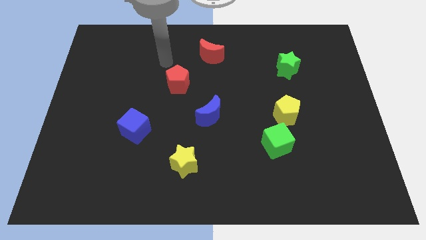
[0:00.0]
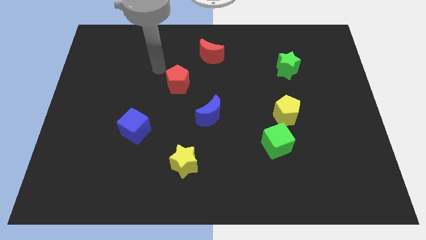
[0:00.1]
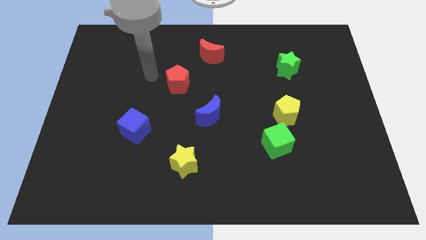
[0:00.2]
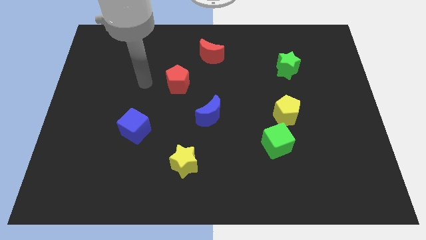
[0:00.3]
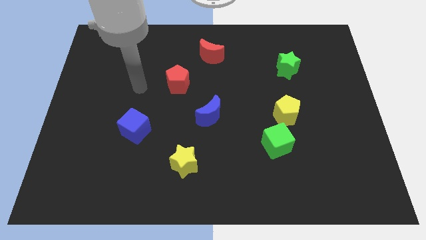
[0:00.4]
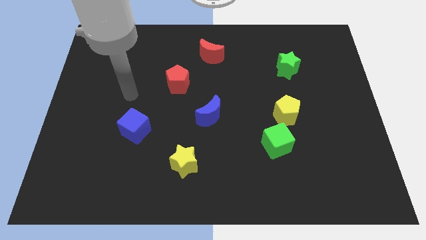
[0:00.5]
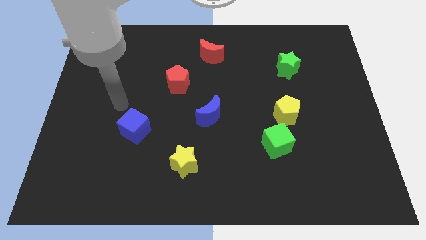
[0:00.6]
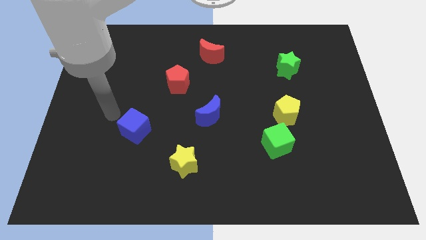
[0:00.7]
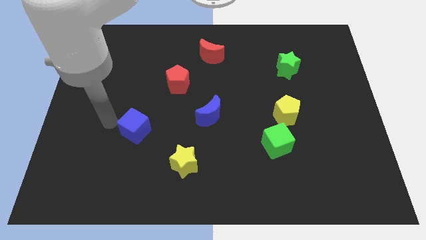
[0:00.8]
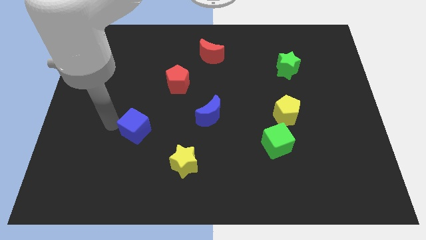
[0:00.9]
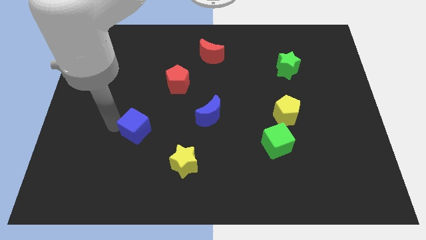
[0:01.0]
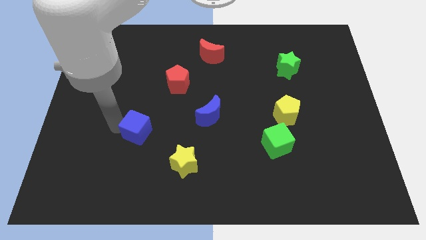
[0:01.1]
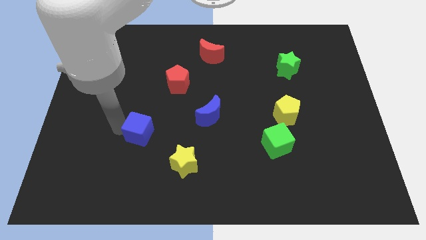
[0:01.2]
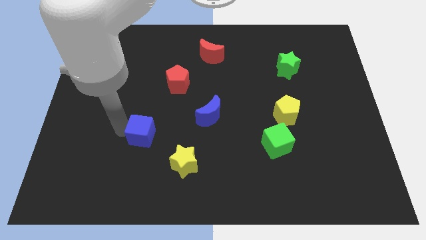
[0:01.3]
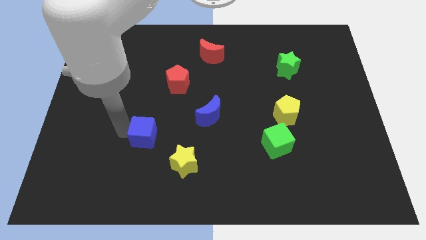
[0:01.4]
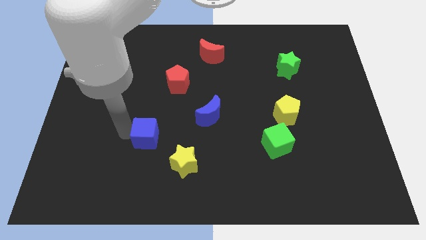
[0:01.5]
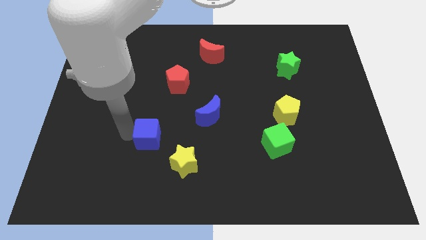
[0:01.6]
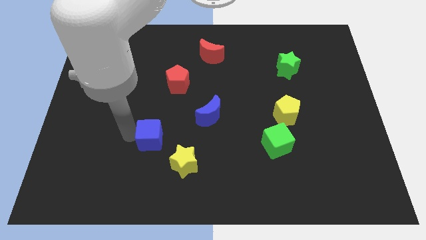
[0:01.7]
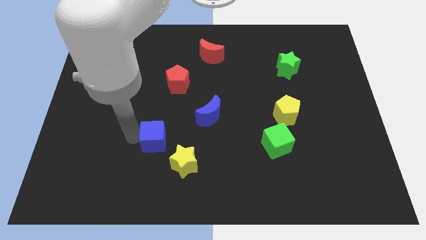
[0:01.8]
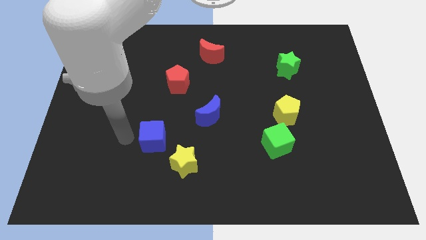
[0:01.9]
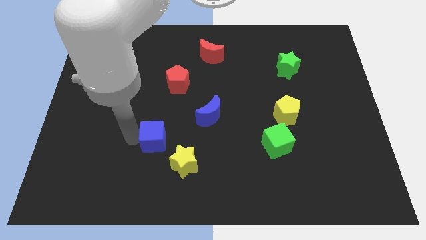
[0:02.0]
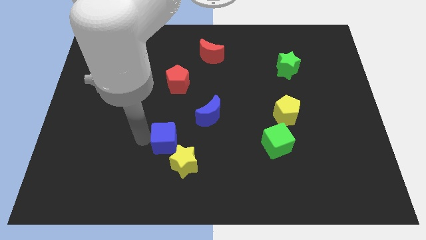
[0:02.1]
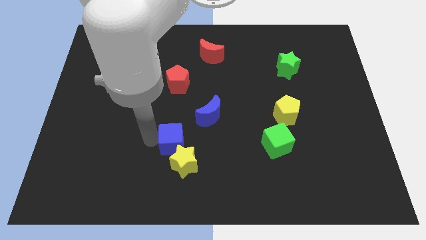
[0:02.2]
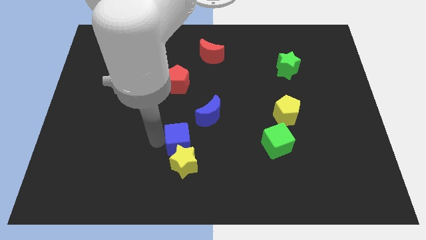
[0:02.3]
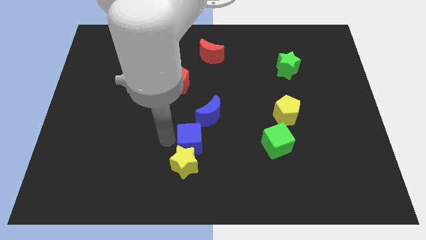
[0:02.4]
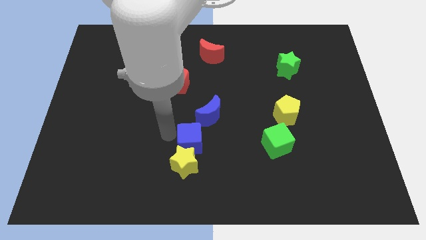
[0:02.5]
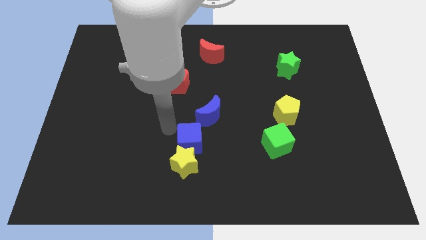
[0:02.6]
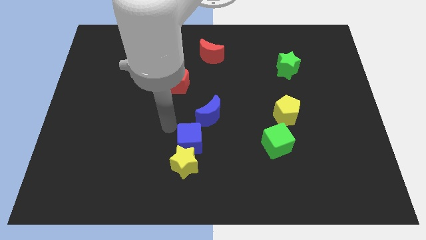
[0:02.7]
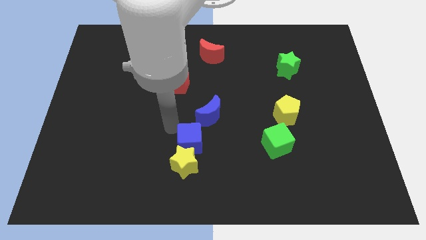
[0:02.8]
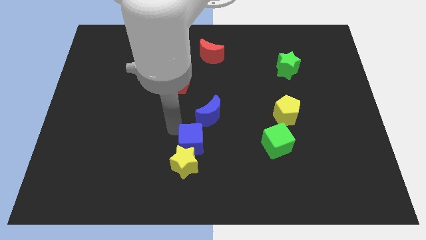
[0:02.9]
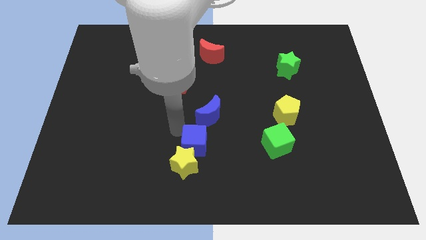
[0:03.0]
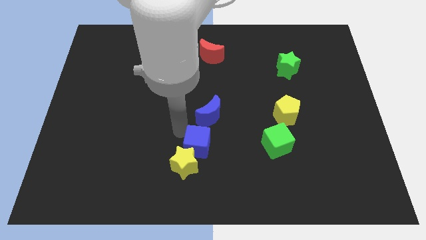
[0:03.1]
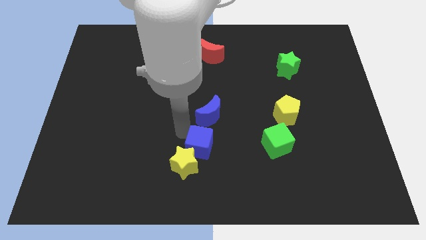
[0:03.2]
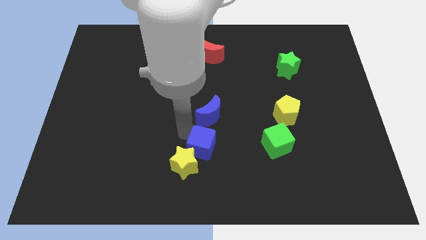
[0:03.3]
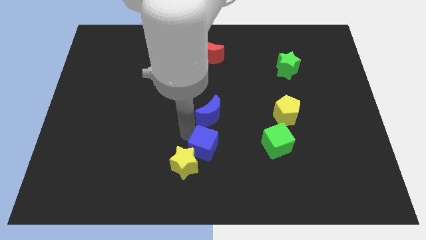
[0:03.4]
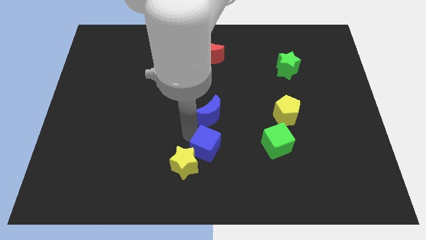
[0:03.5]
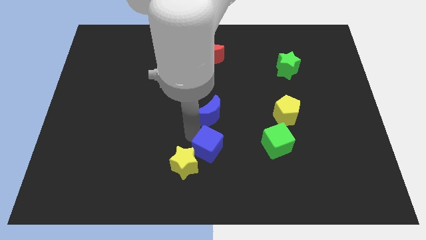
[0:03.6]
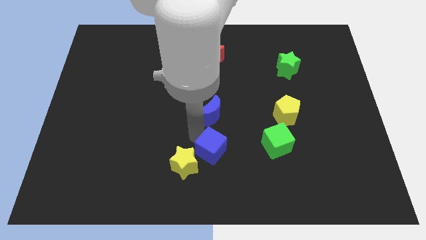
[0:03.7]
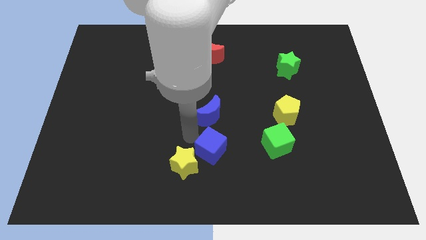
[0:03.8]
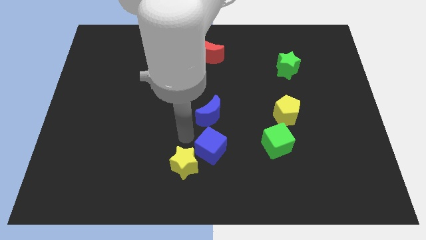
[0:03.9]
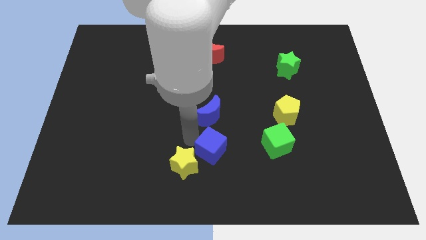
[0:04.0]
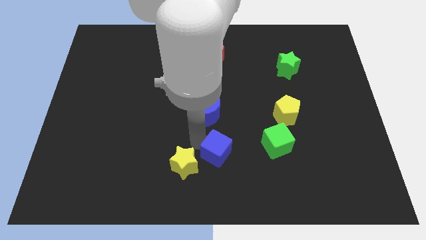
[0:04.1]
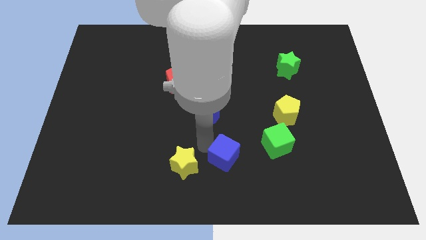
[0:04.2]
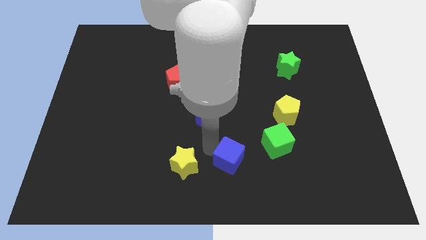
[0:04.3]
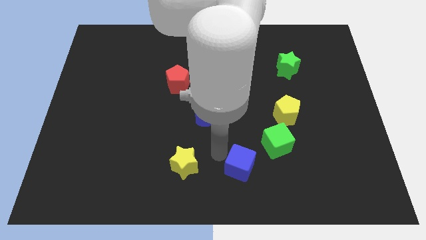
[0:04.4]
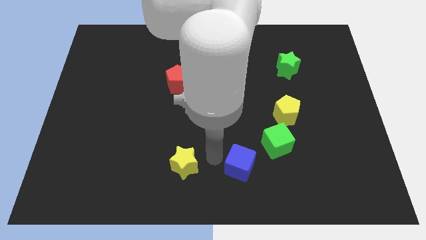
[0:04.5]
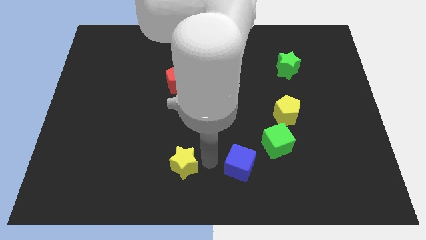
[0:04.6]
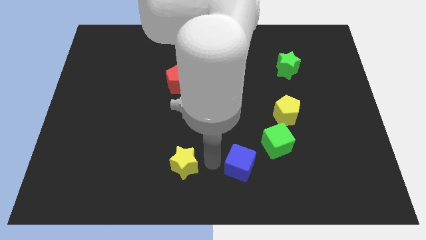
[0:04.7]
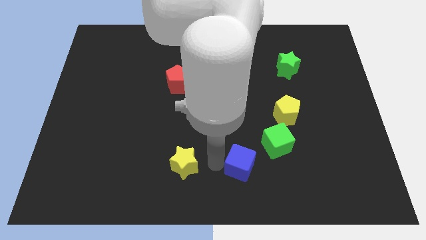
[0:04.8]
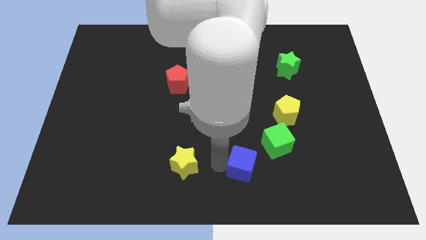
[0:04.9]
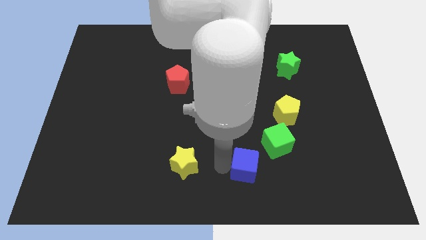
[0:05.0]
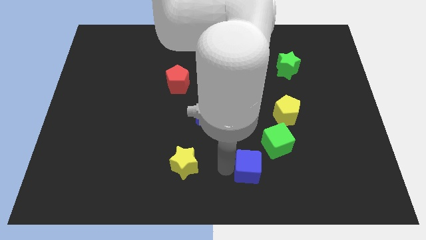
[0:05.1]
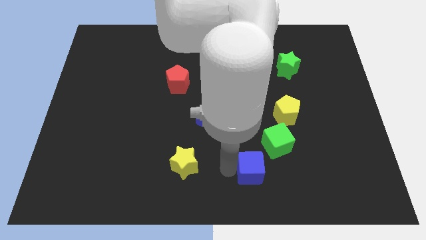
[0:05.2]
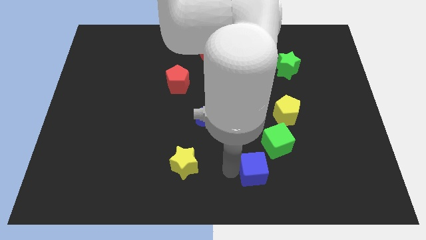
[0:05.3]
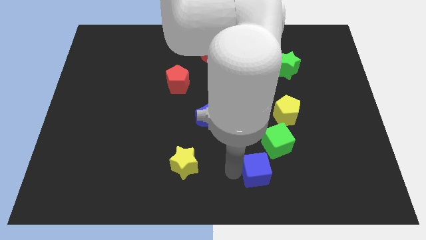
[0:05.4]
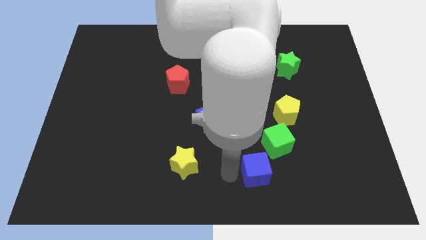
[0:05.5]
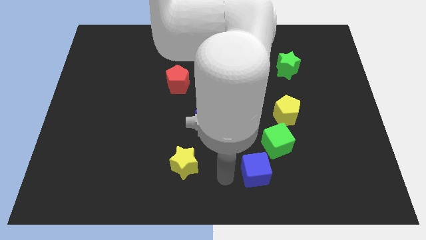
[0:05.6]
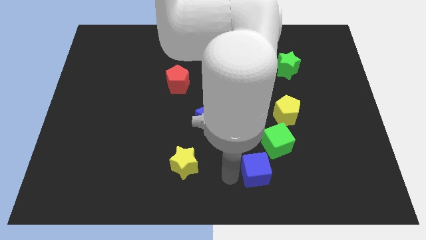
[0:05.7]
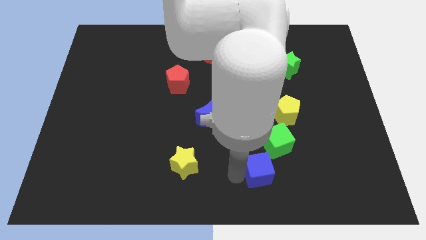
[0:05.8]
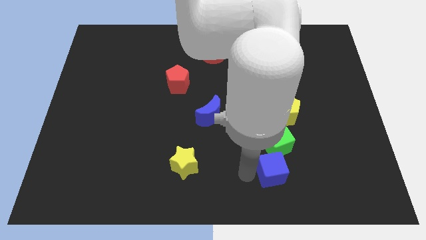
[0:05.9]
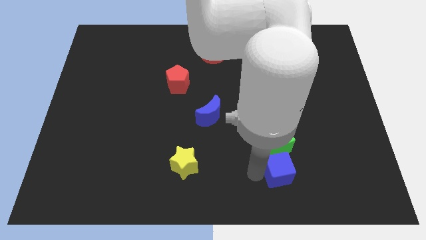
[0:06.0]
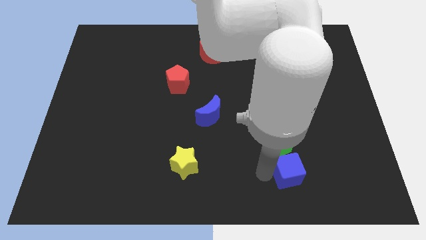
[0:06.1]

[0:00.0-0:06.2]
put the blue cube diagonally down and to the right of the green cube

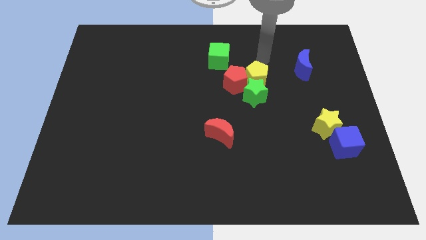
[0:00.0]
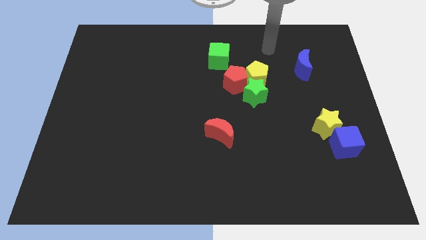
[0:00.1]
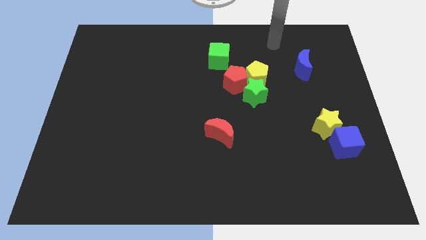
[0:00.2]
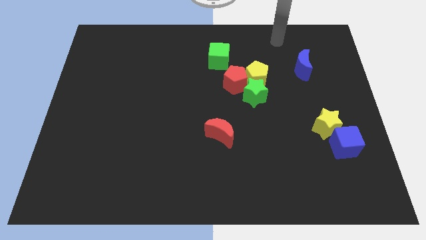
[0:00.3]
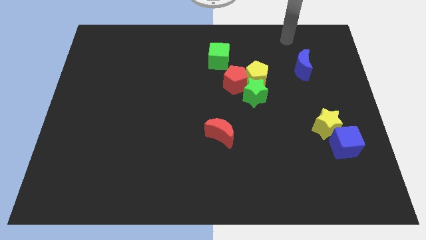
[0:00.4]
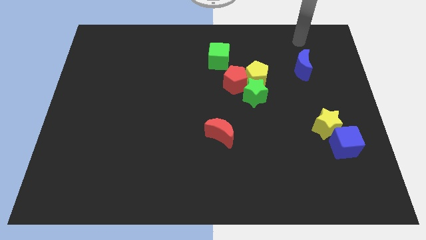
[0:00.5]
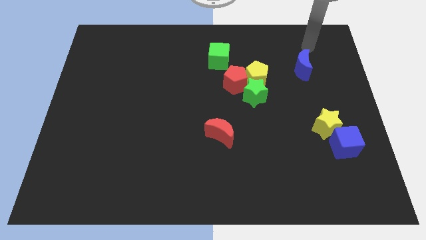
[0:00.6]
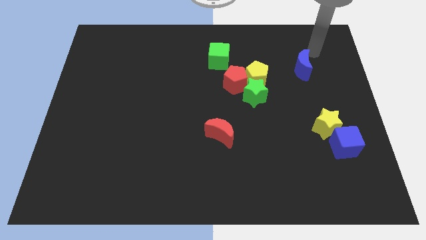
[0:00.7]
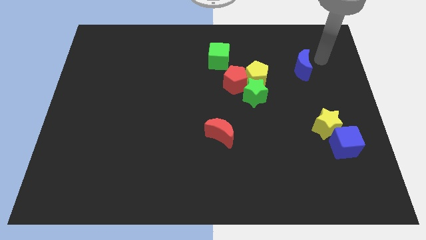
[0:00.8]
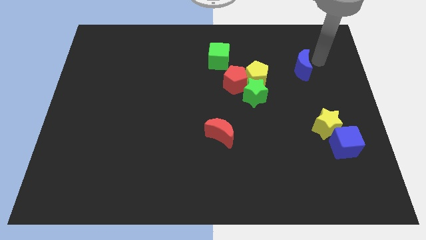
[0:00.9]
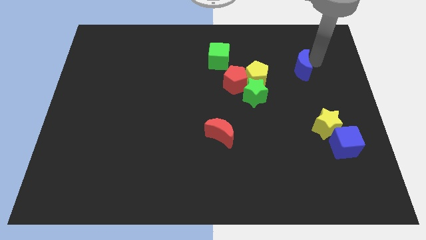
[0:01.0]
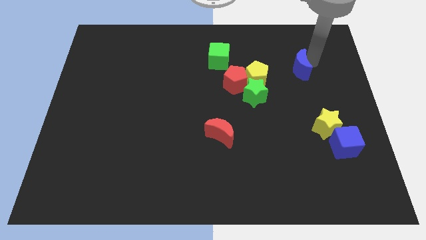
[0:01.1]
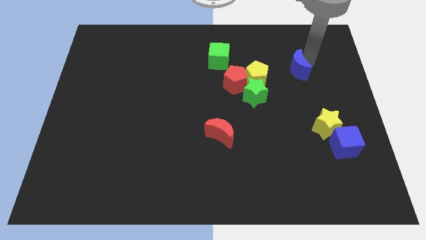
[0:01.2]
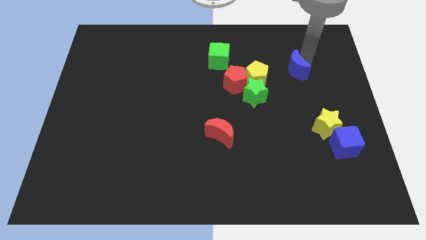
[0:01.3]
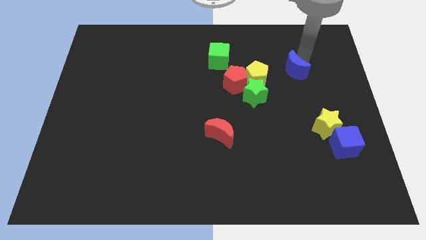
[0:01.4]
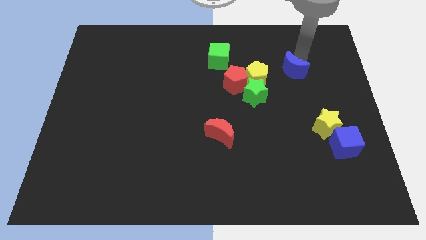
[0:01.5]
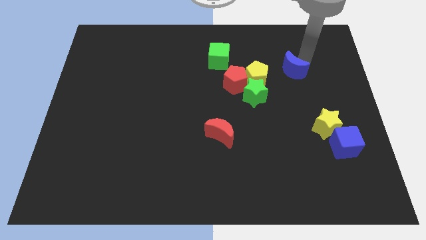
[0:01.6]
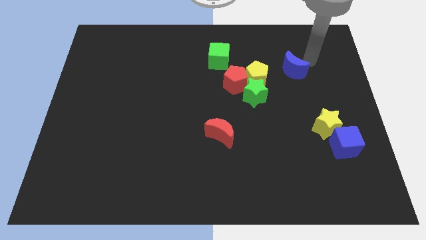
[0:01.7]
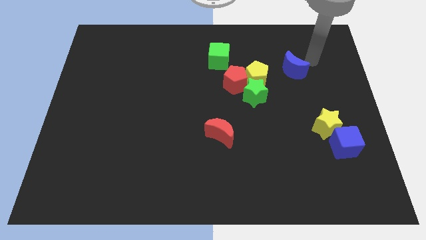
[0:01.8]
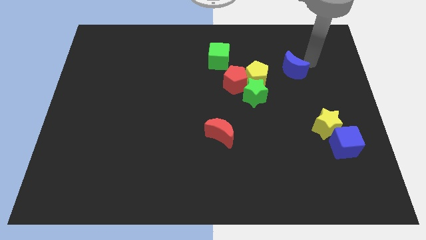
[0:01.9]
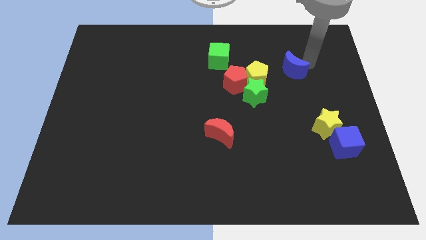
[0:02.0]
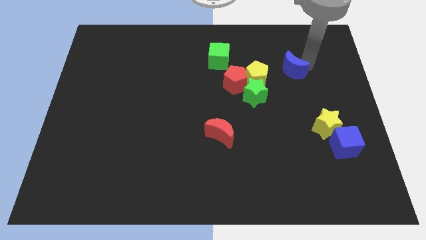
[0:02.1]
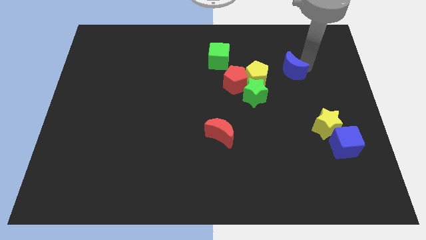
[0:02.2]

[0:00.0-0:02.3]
put the blue moon diagonally up and to the right of the green star
